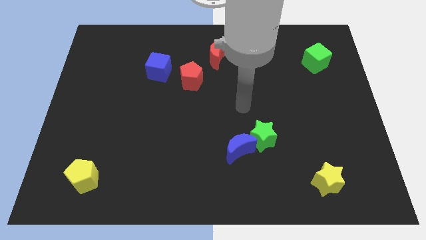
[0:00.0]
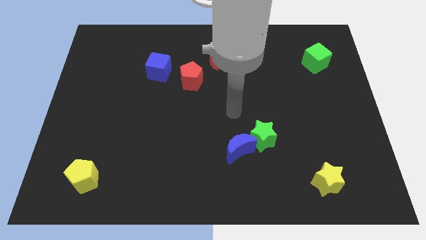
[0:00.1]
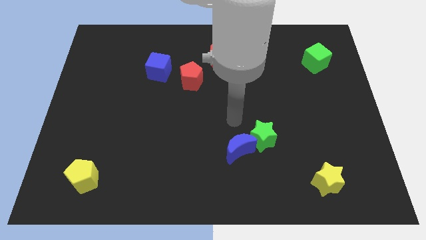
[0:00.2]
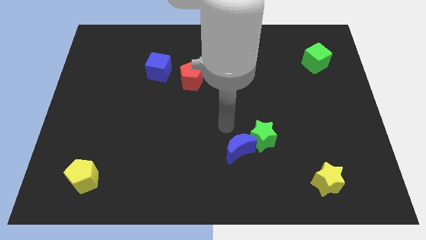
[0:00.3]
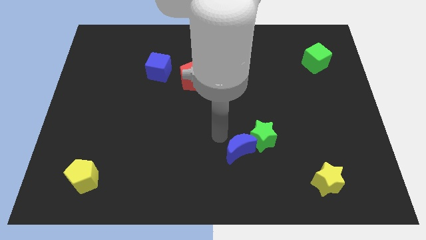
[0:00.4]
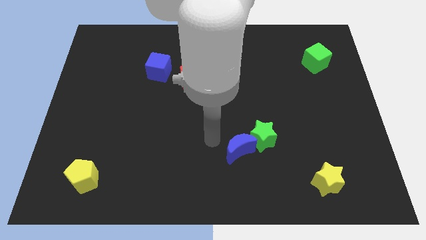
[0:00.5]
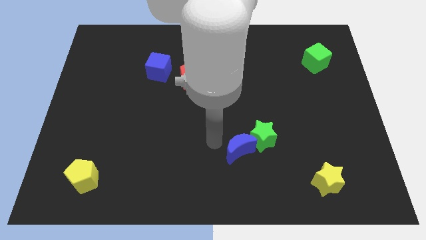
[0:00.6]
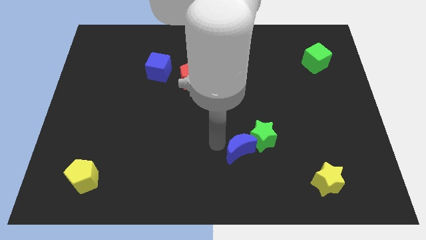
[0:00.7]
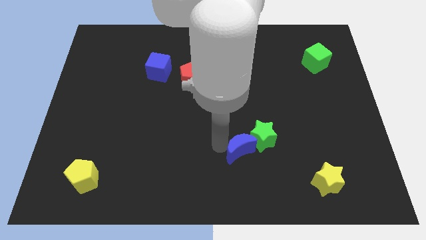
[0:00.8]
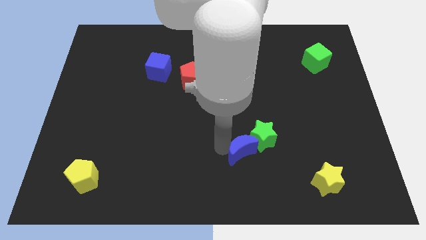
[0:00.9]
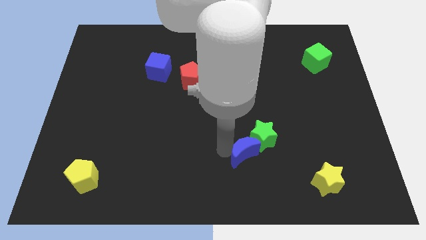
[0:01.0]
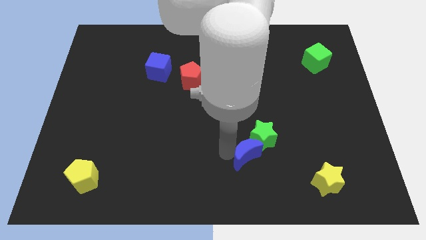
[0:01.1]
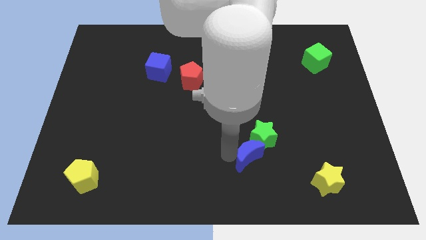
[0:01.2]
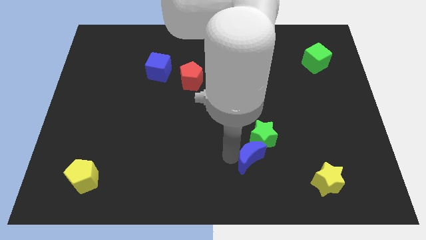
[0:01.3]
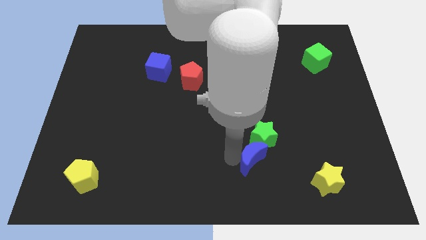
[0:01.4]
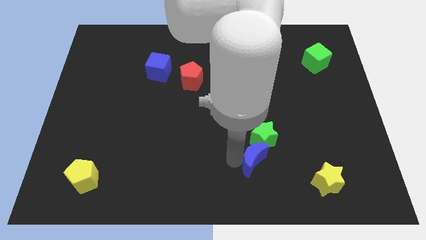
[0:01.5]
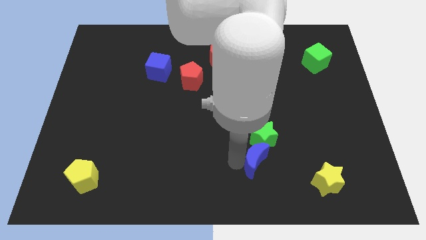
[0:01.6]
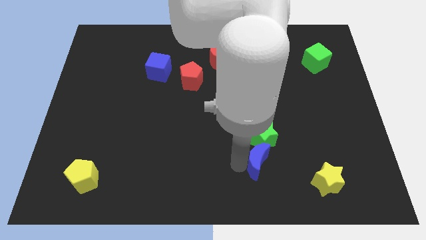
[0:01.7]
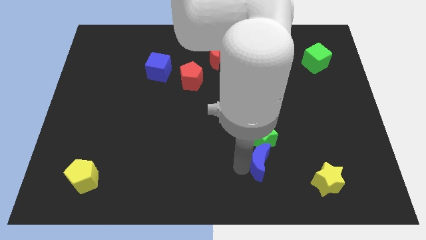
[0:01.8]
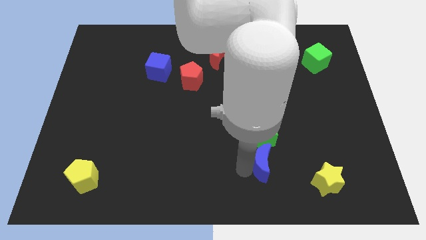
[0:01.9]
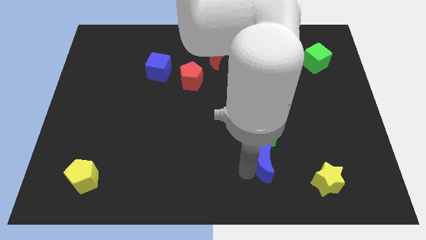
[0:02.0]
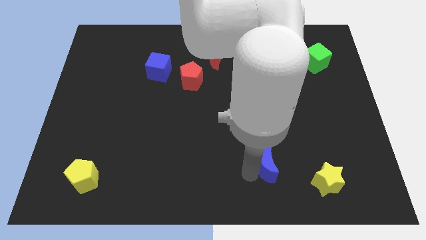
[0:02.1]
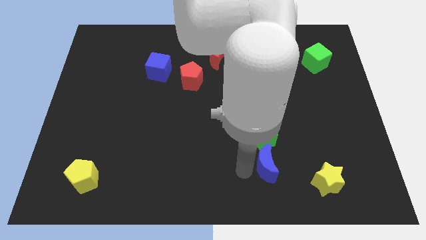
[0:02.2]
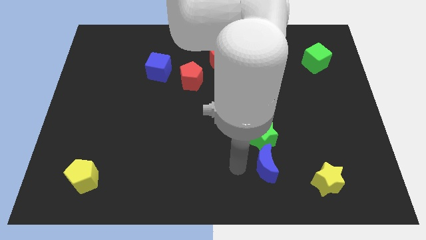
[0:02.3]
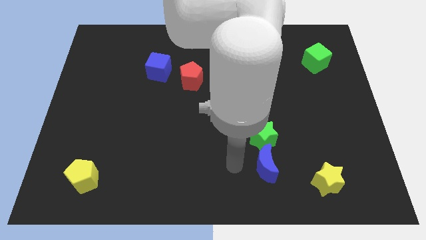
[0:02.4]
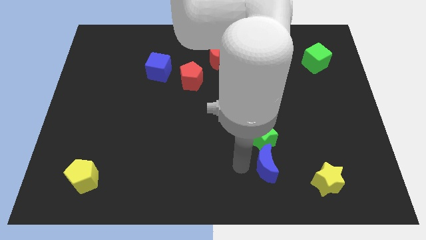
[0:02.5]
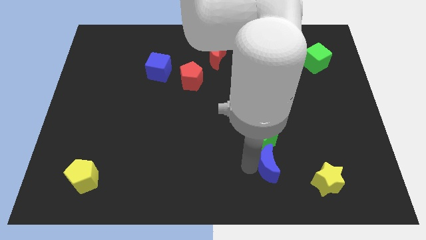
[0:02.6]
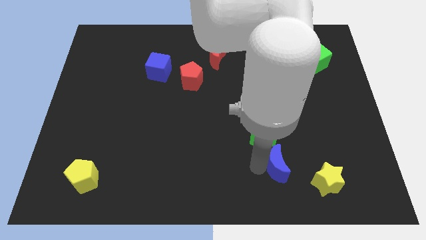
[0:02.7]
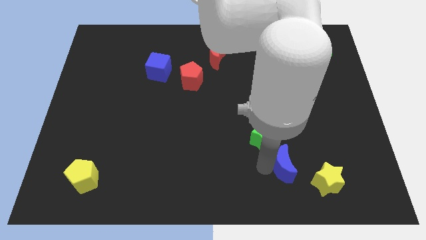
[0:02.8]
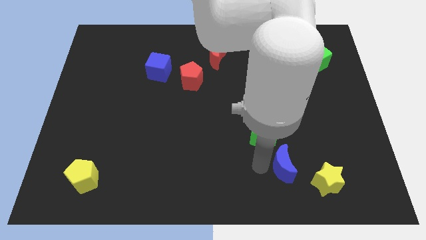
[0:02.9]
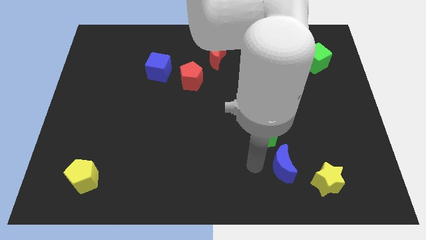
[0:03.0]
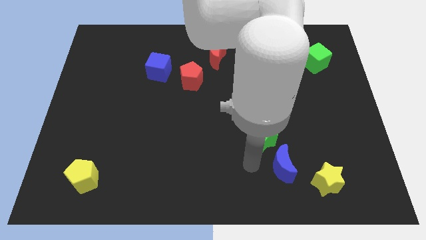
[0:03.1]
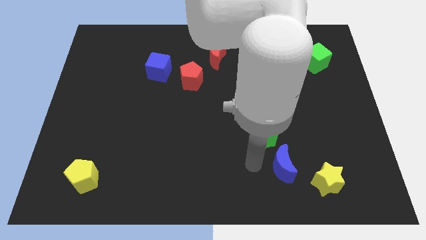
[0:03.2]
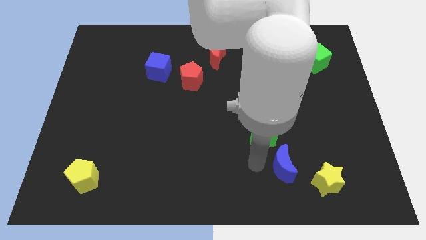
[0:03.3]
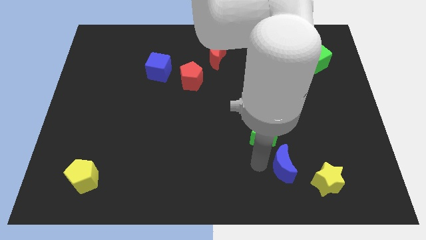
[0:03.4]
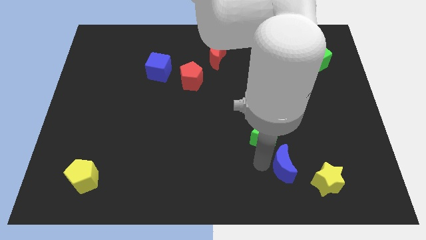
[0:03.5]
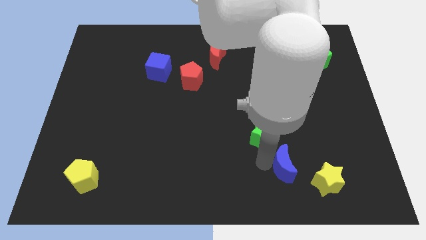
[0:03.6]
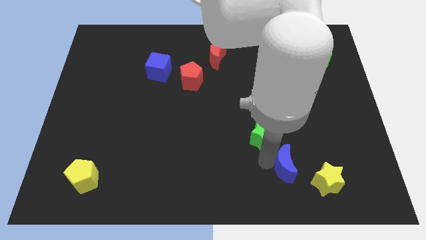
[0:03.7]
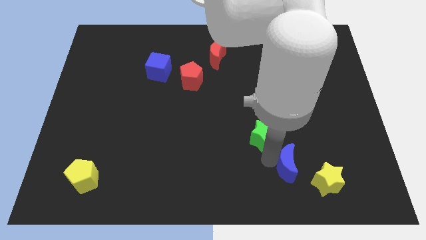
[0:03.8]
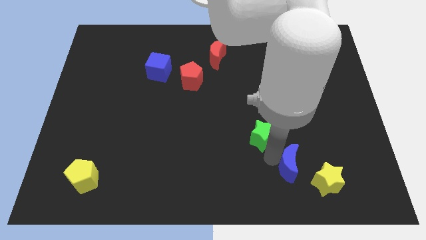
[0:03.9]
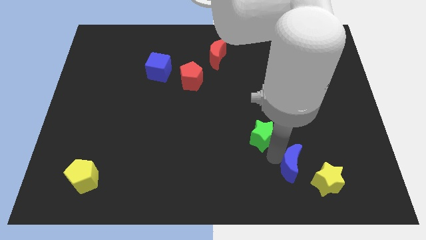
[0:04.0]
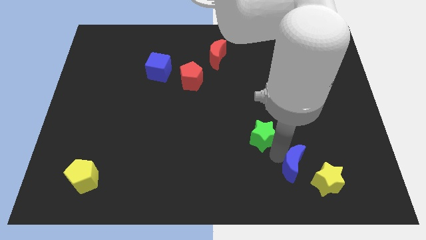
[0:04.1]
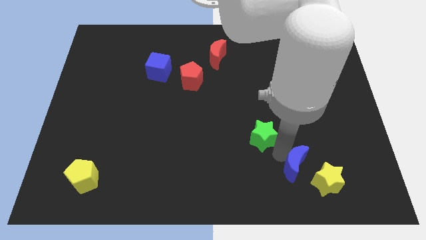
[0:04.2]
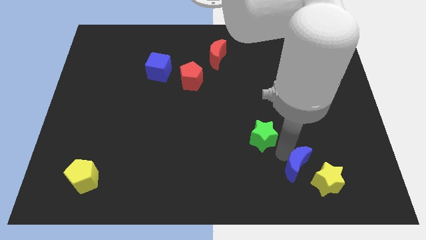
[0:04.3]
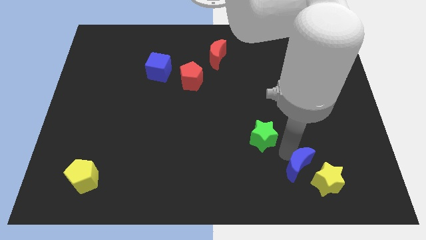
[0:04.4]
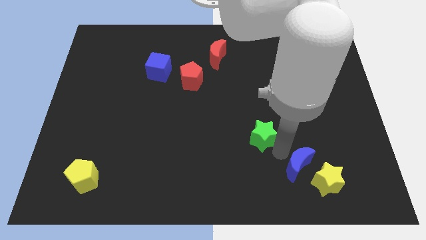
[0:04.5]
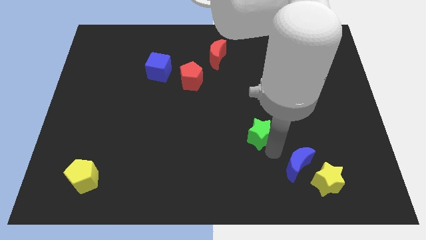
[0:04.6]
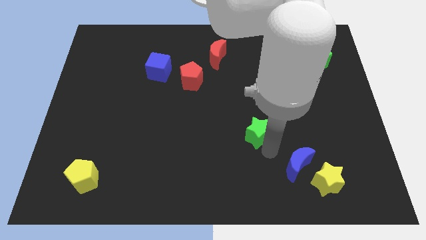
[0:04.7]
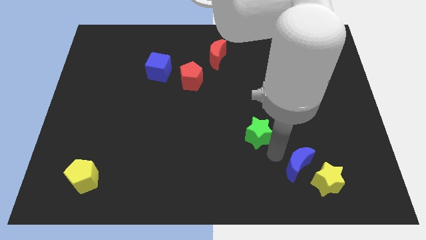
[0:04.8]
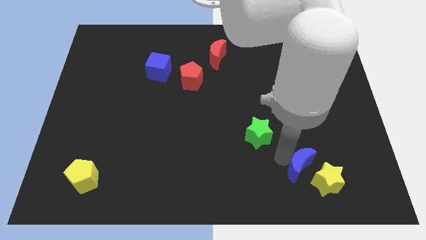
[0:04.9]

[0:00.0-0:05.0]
move the blue moon towards the yellow star

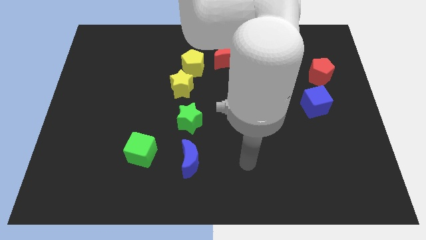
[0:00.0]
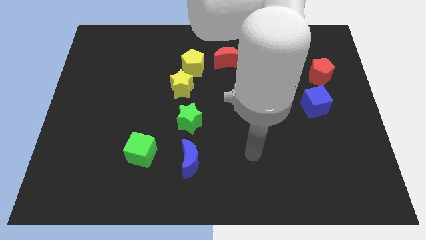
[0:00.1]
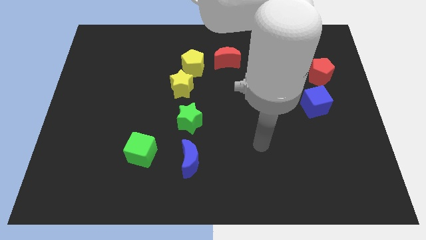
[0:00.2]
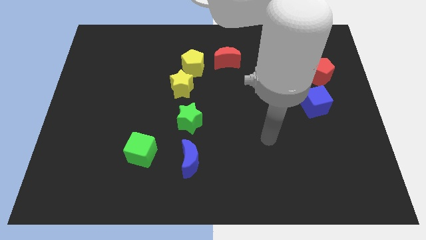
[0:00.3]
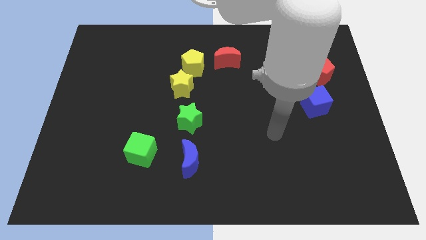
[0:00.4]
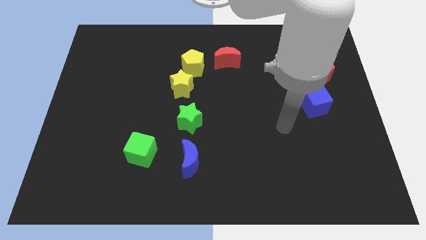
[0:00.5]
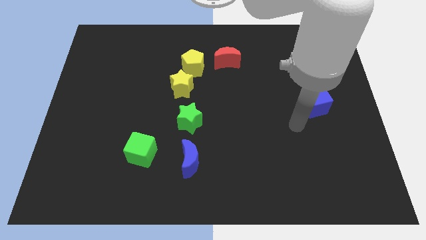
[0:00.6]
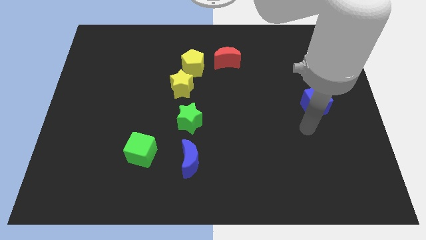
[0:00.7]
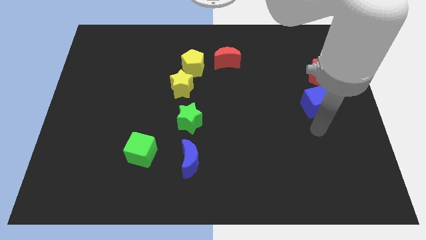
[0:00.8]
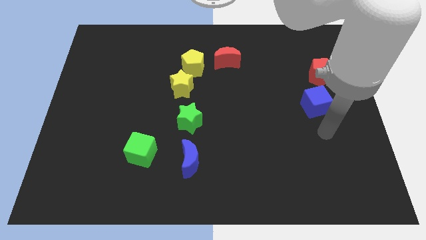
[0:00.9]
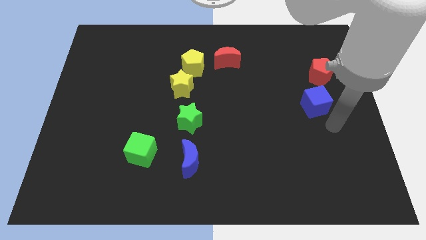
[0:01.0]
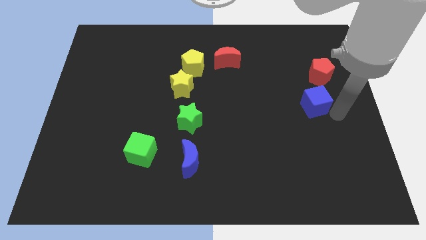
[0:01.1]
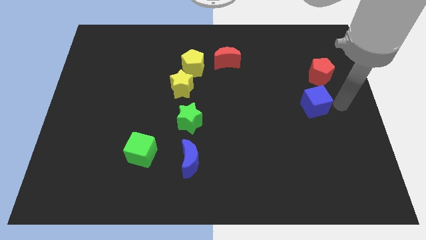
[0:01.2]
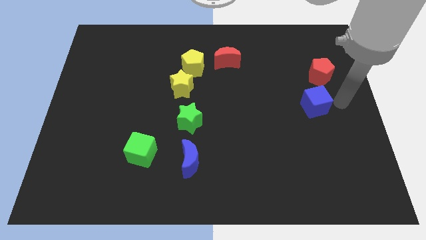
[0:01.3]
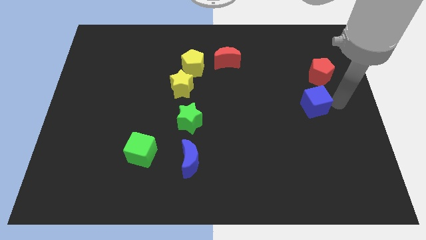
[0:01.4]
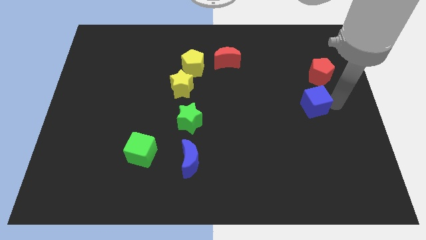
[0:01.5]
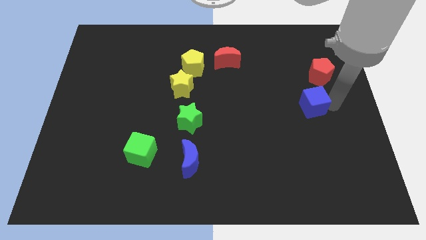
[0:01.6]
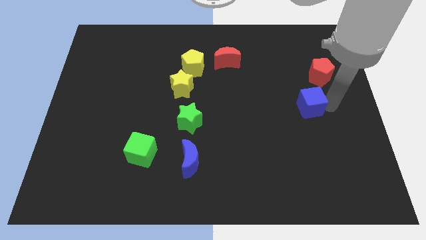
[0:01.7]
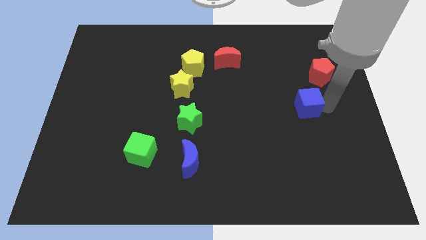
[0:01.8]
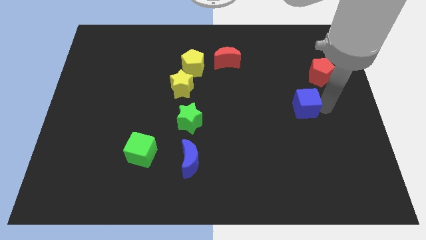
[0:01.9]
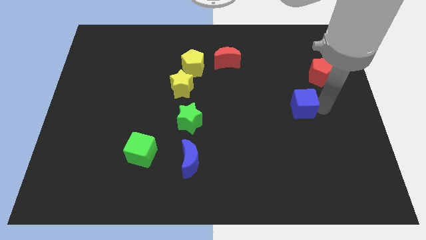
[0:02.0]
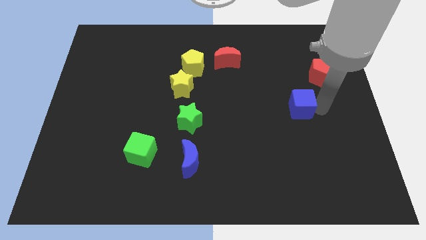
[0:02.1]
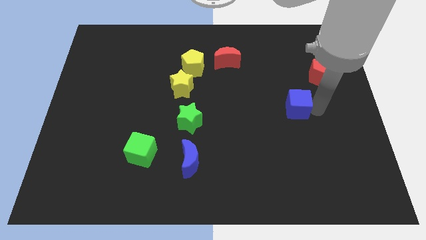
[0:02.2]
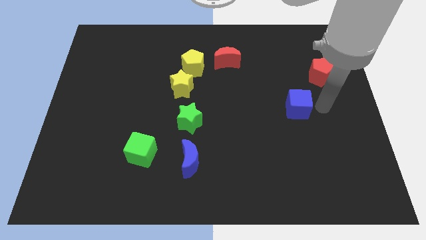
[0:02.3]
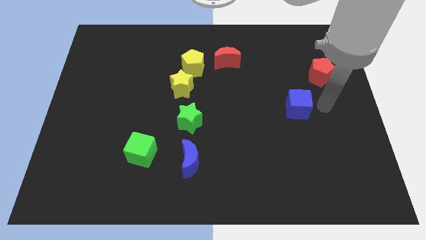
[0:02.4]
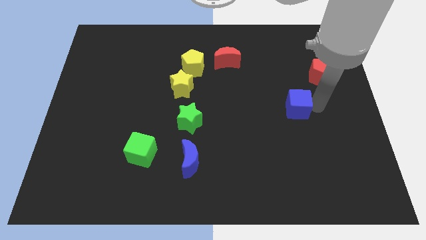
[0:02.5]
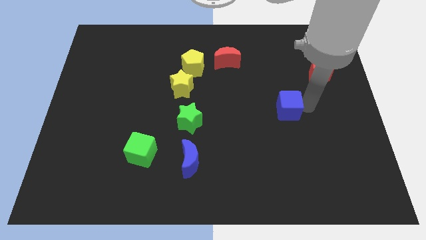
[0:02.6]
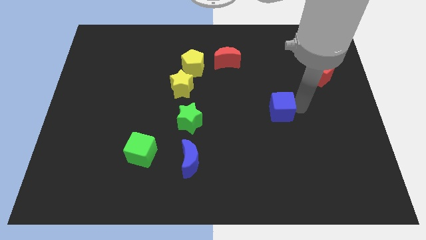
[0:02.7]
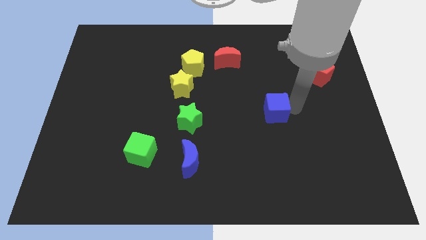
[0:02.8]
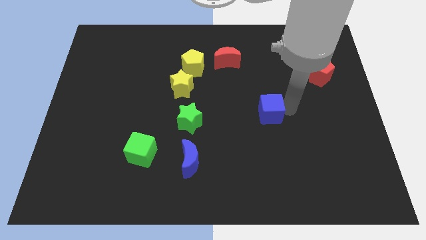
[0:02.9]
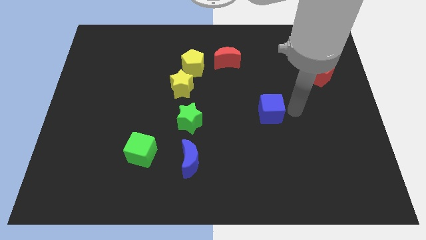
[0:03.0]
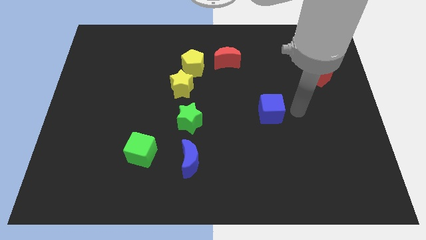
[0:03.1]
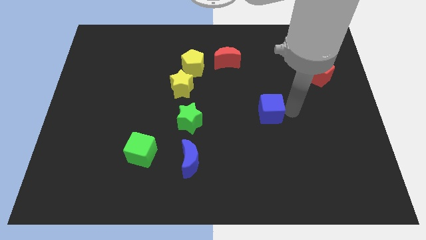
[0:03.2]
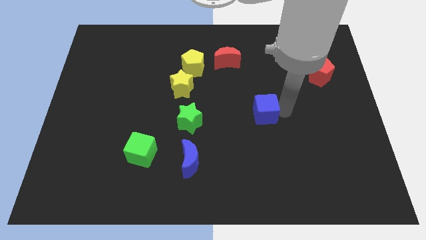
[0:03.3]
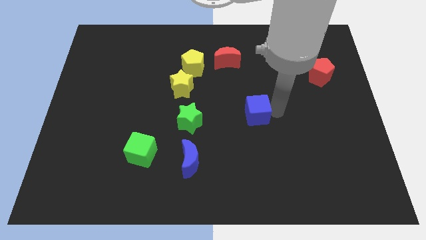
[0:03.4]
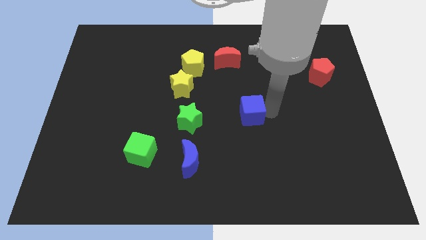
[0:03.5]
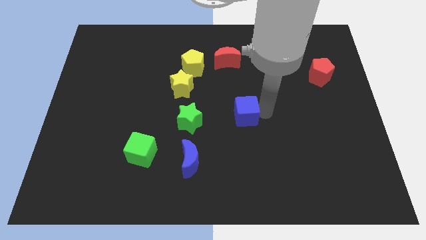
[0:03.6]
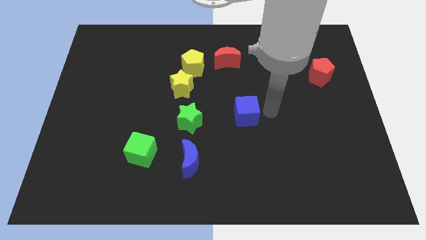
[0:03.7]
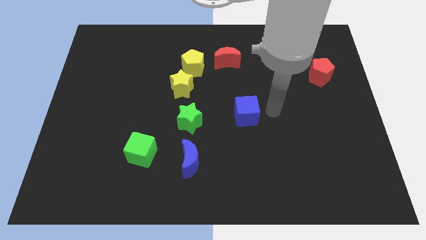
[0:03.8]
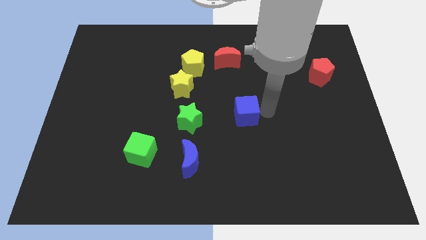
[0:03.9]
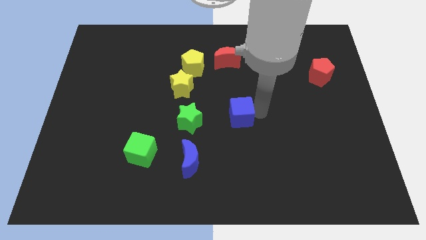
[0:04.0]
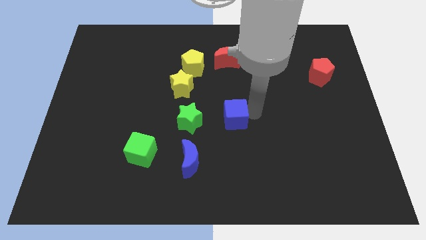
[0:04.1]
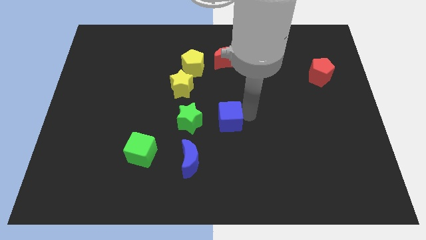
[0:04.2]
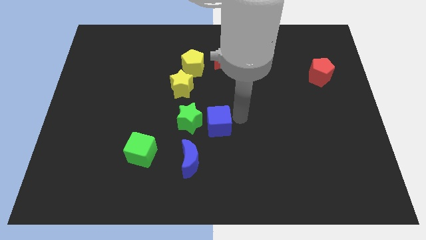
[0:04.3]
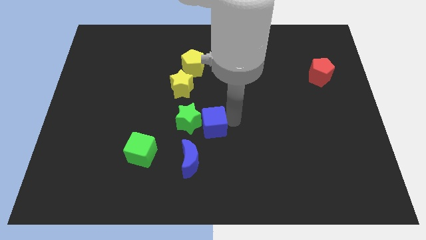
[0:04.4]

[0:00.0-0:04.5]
push the blue cube to the green star
